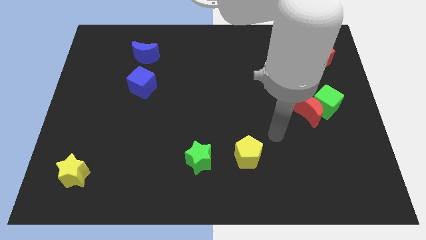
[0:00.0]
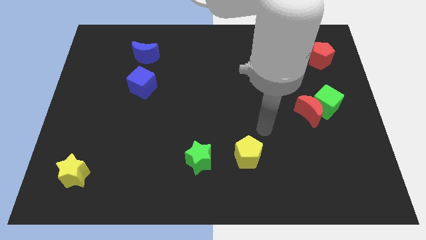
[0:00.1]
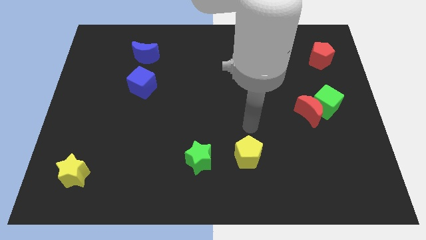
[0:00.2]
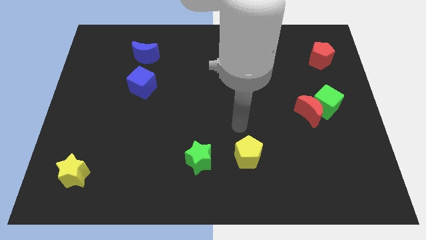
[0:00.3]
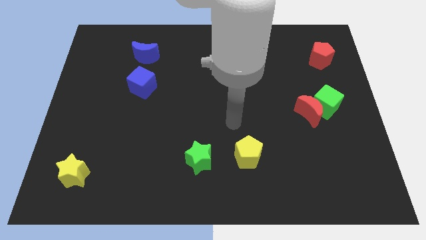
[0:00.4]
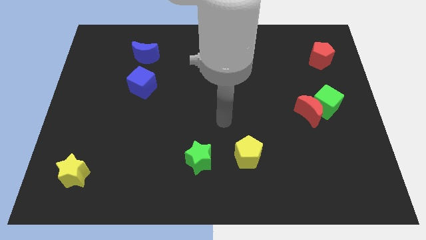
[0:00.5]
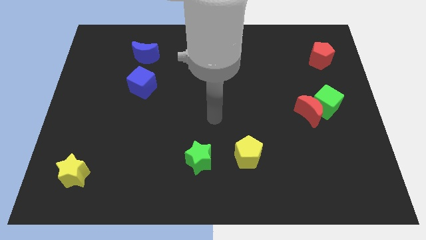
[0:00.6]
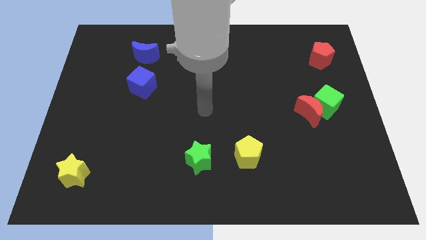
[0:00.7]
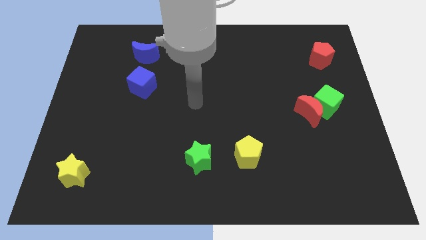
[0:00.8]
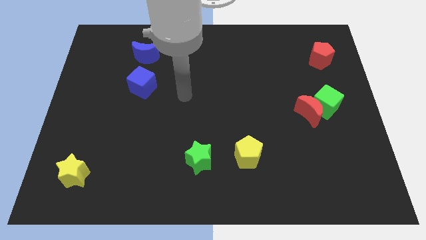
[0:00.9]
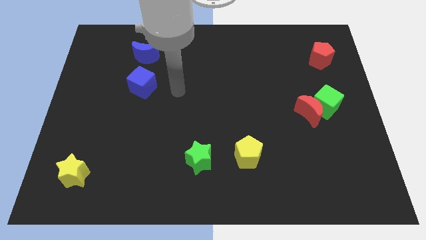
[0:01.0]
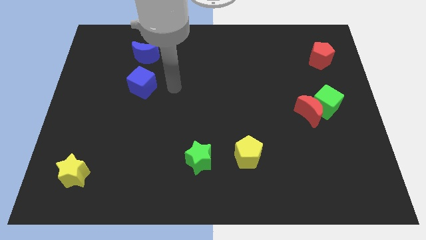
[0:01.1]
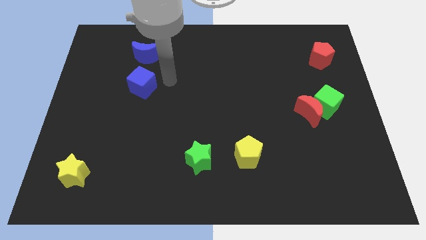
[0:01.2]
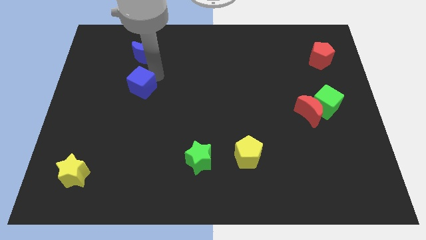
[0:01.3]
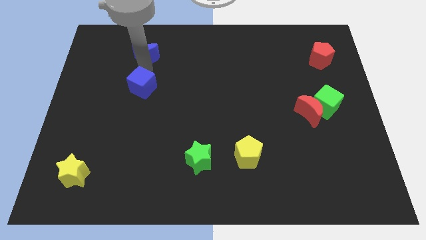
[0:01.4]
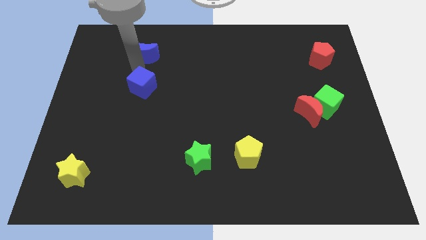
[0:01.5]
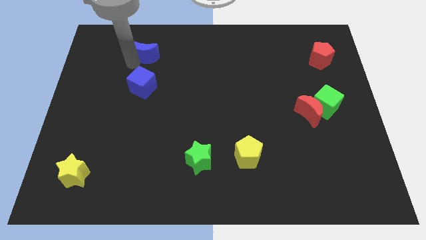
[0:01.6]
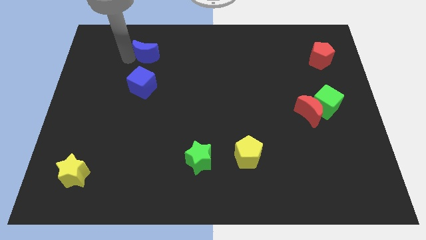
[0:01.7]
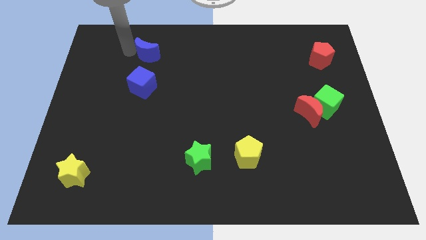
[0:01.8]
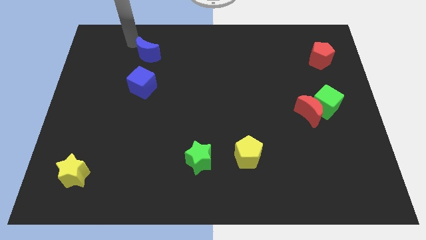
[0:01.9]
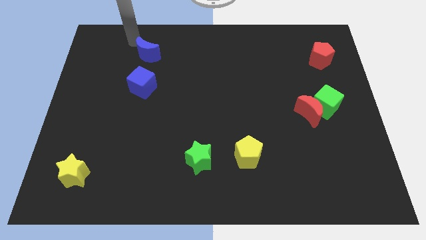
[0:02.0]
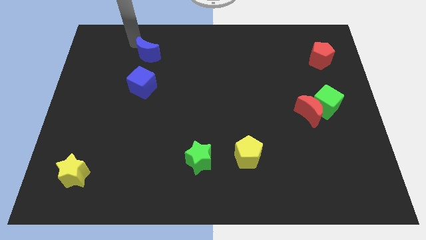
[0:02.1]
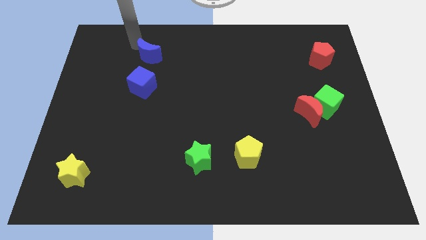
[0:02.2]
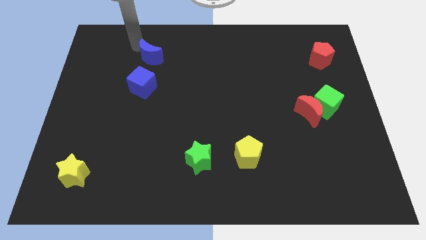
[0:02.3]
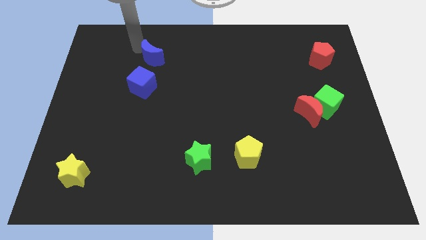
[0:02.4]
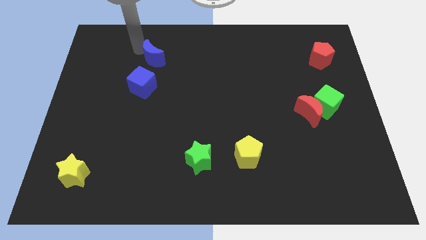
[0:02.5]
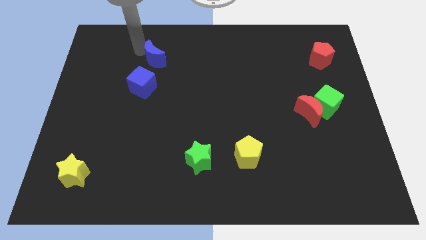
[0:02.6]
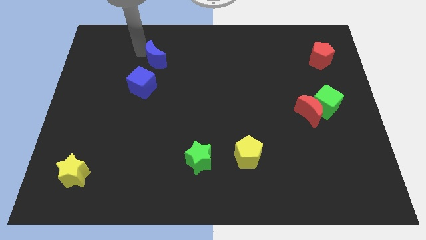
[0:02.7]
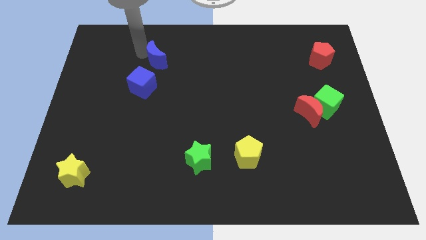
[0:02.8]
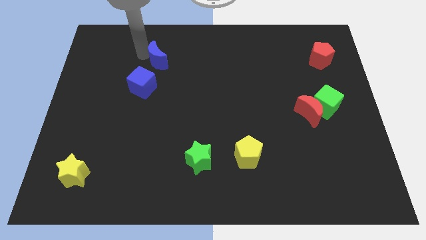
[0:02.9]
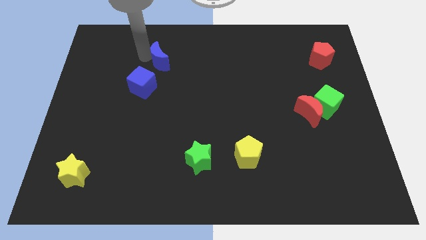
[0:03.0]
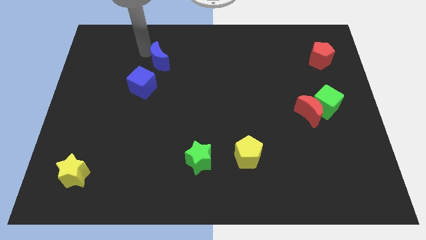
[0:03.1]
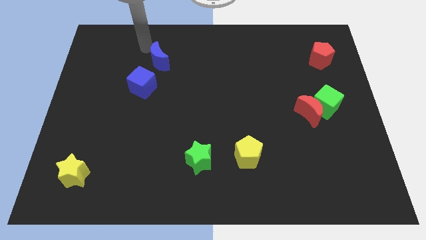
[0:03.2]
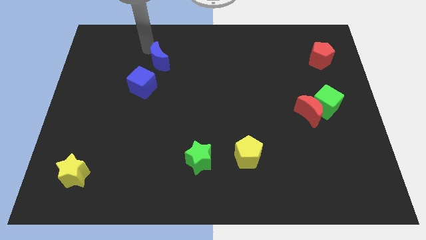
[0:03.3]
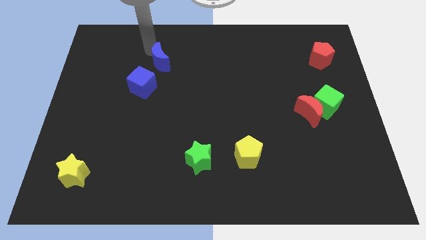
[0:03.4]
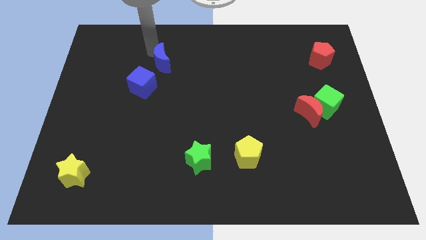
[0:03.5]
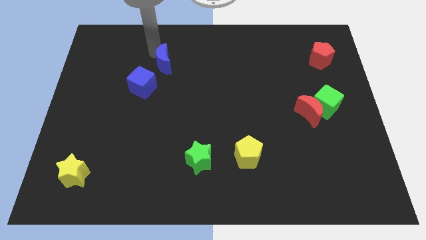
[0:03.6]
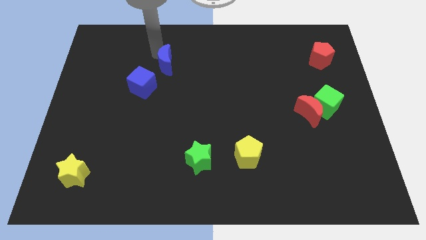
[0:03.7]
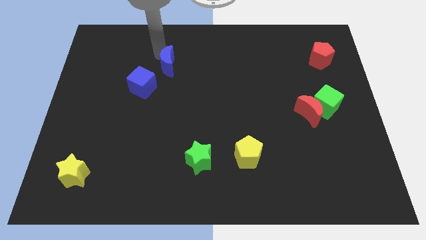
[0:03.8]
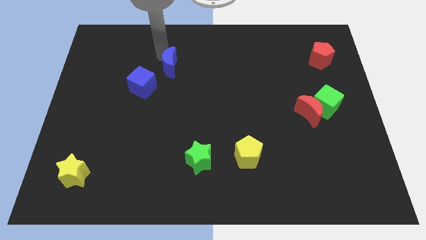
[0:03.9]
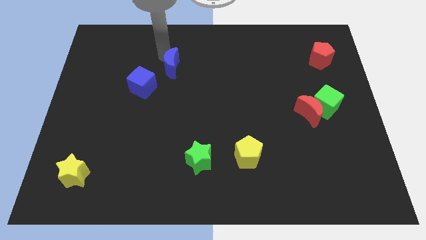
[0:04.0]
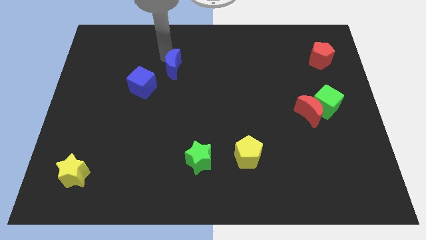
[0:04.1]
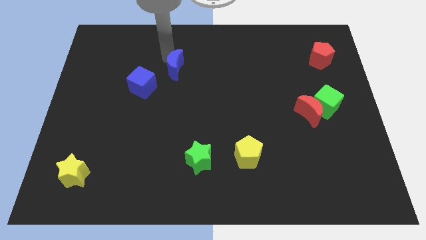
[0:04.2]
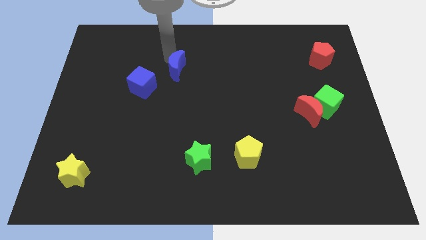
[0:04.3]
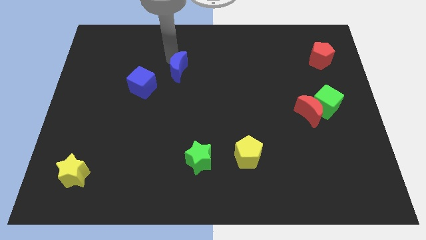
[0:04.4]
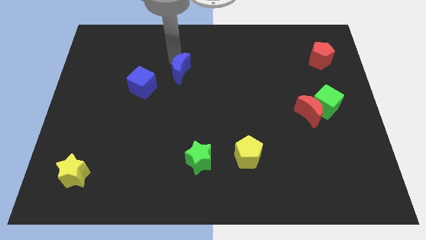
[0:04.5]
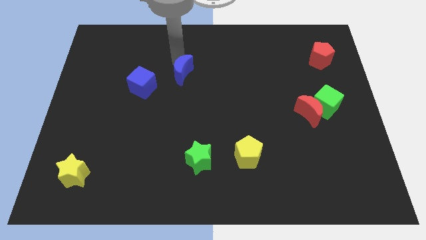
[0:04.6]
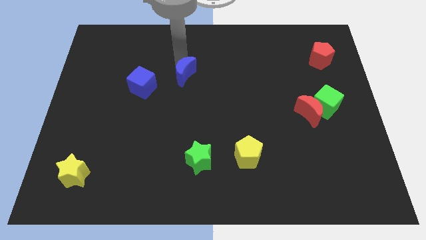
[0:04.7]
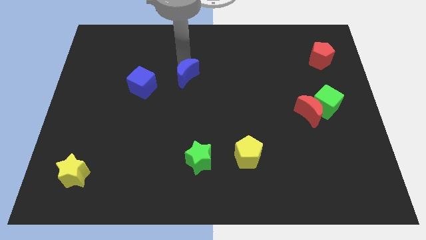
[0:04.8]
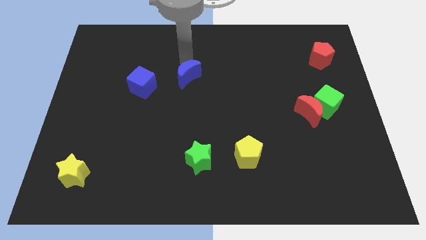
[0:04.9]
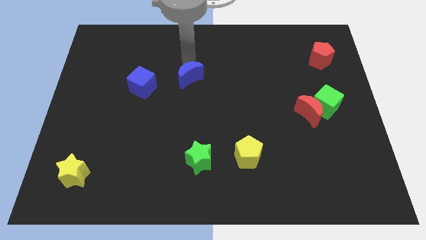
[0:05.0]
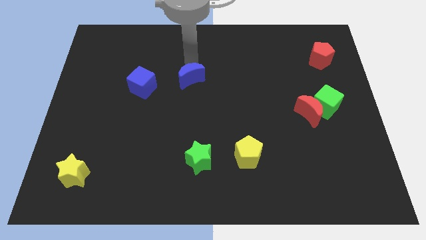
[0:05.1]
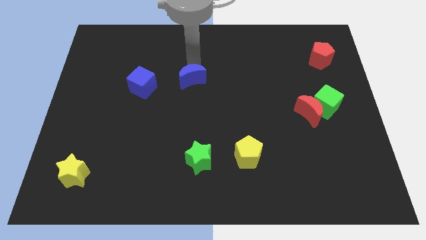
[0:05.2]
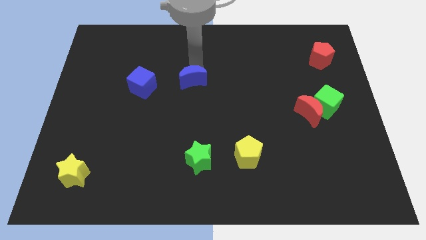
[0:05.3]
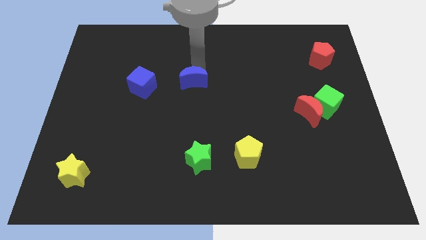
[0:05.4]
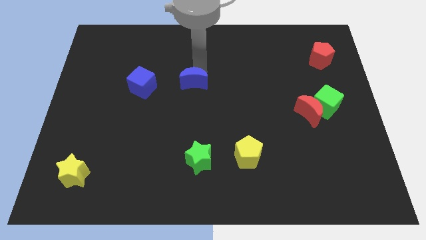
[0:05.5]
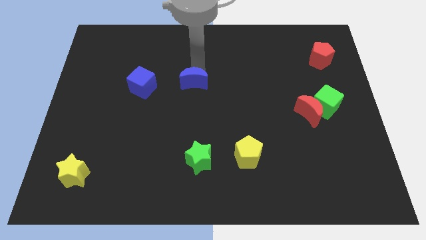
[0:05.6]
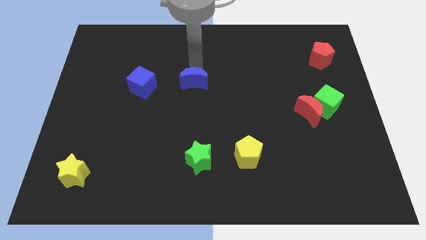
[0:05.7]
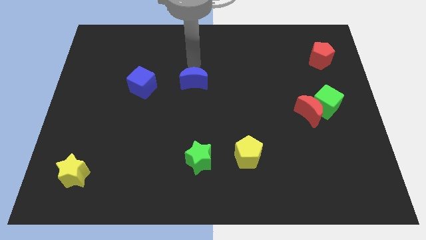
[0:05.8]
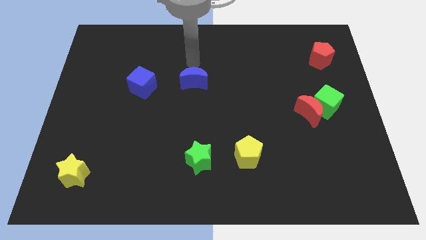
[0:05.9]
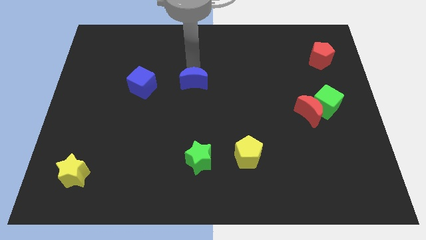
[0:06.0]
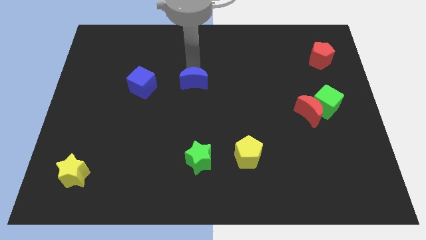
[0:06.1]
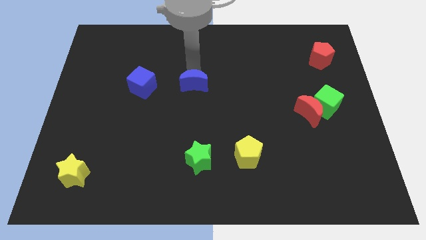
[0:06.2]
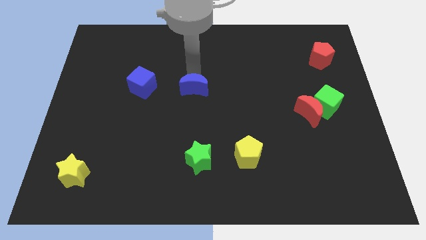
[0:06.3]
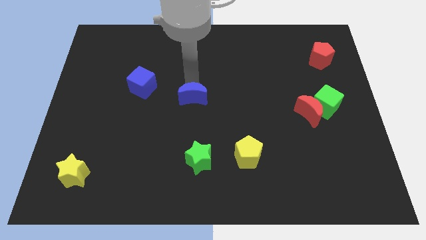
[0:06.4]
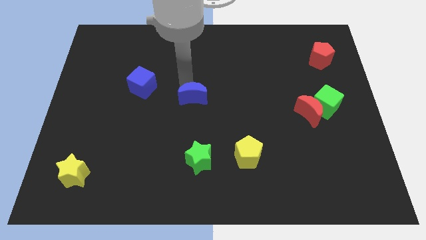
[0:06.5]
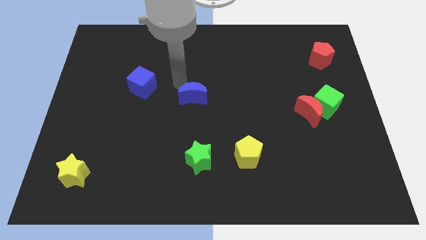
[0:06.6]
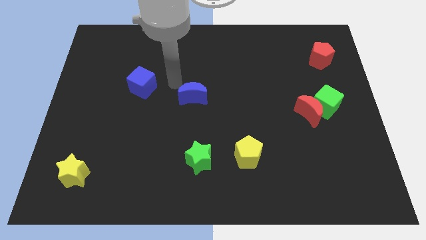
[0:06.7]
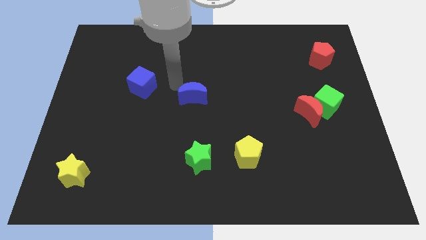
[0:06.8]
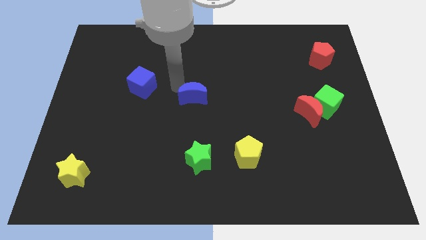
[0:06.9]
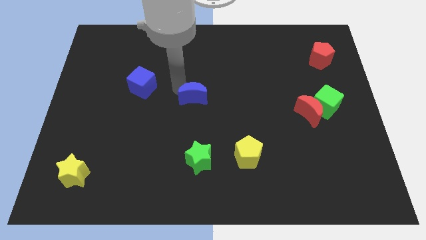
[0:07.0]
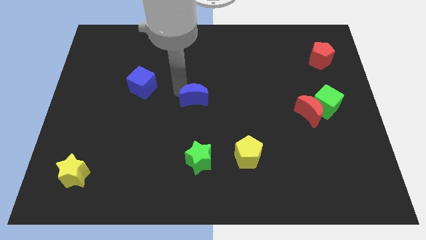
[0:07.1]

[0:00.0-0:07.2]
move the blue moon down and then to the right

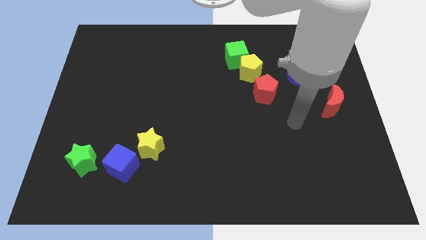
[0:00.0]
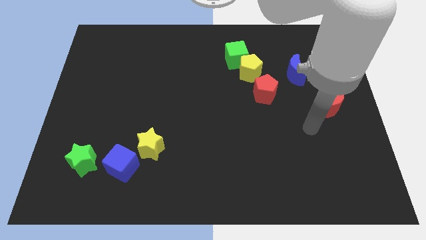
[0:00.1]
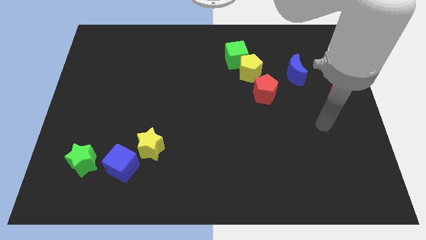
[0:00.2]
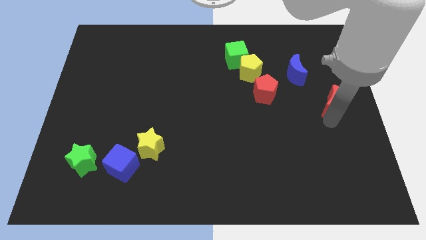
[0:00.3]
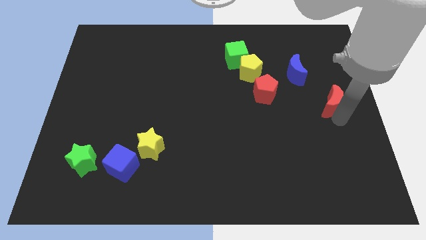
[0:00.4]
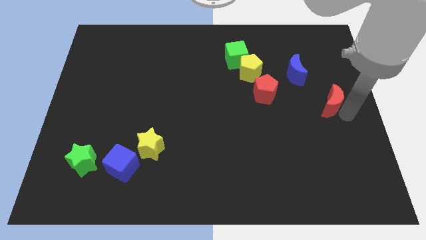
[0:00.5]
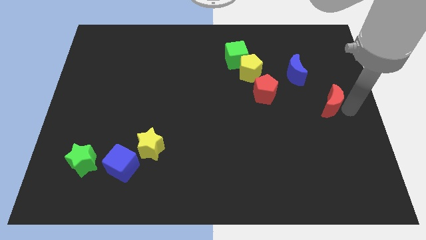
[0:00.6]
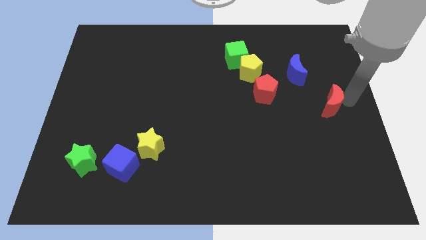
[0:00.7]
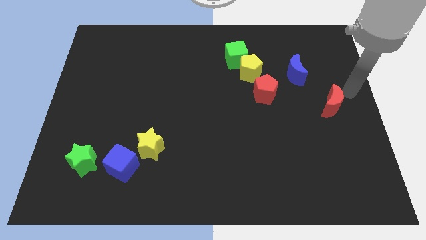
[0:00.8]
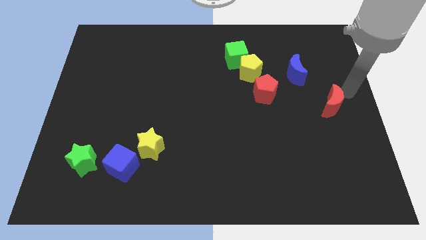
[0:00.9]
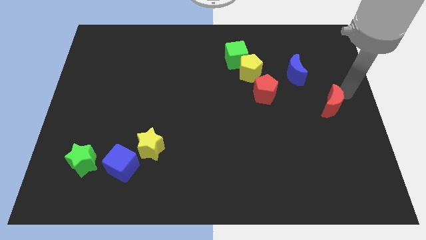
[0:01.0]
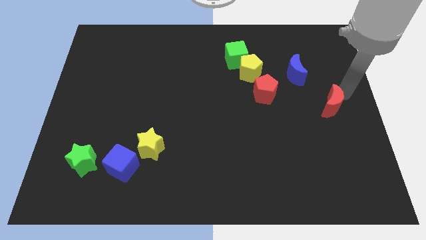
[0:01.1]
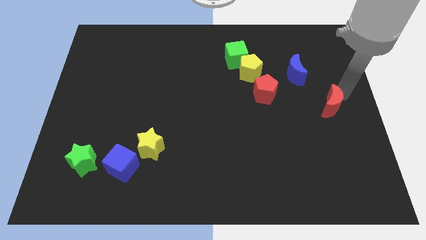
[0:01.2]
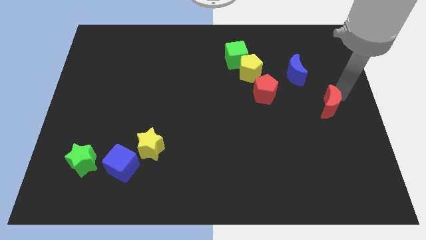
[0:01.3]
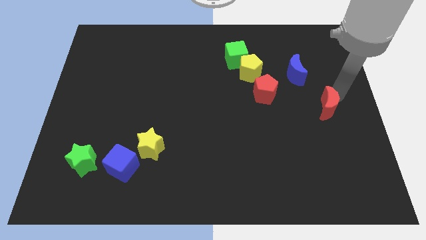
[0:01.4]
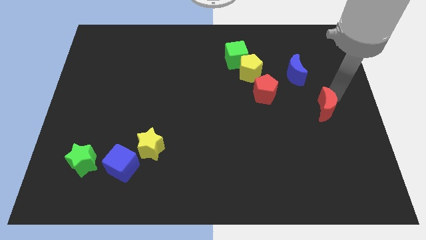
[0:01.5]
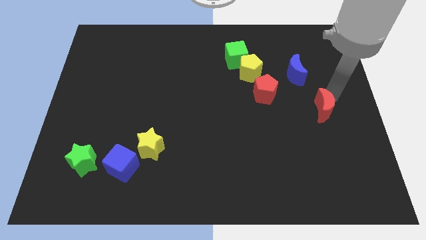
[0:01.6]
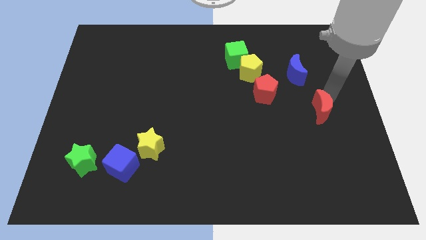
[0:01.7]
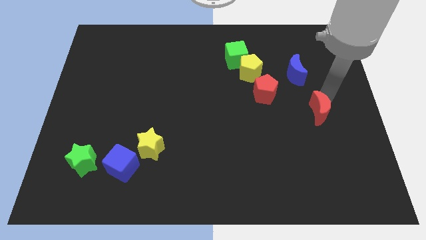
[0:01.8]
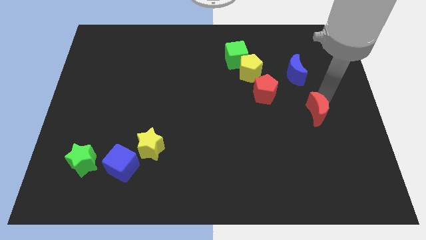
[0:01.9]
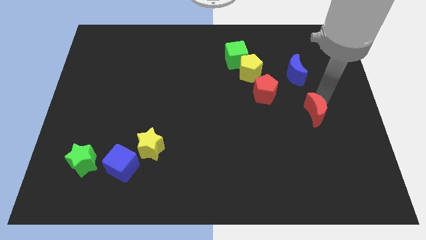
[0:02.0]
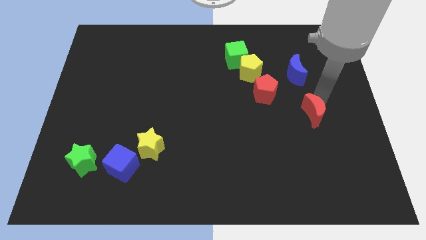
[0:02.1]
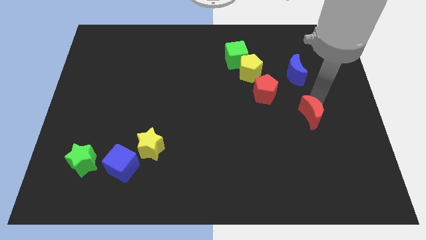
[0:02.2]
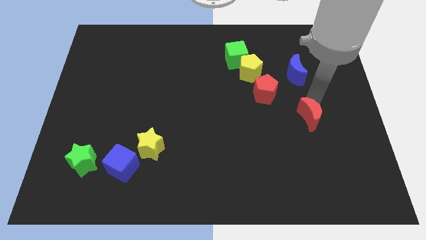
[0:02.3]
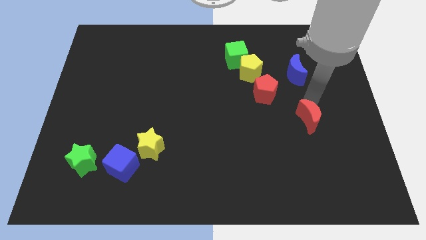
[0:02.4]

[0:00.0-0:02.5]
slide the red moon somewhat diagonally downwards and to the left
